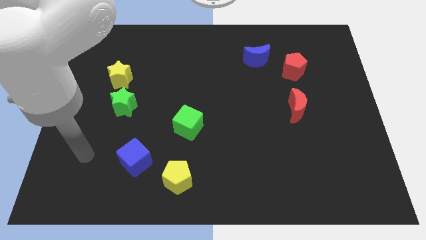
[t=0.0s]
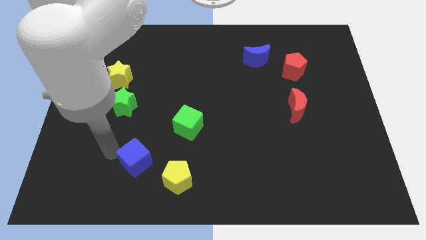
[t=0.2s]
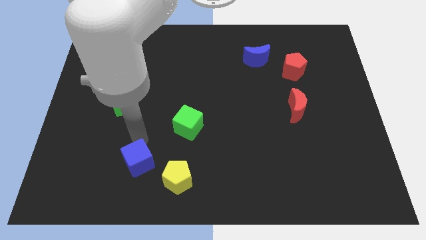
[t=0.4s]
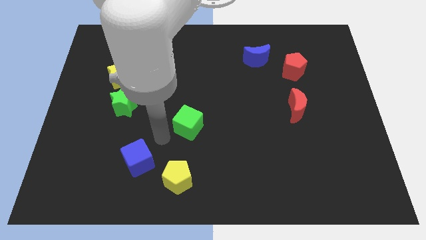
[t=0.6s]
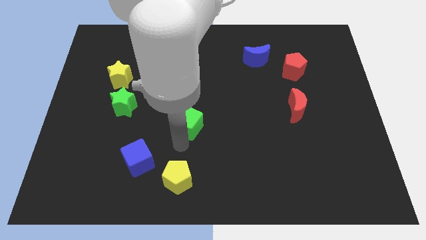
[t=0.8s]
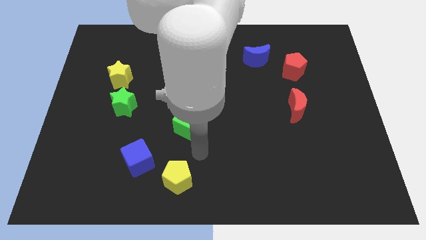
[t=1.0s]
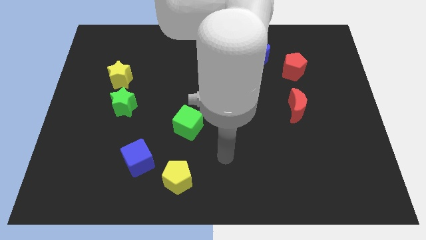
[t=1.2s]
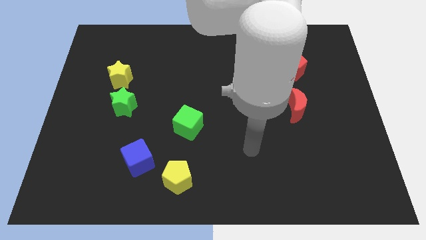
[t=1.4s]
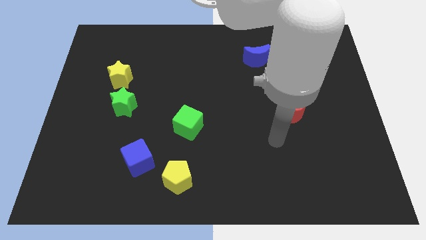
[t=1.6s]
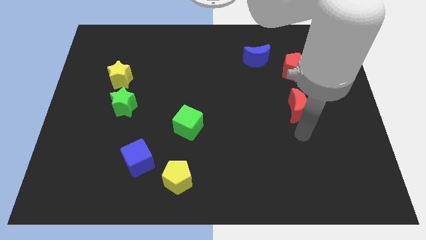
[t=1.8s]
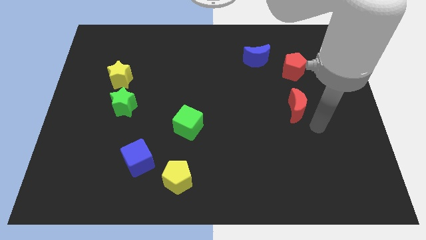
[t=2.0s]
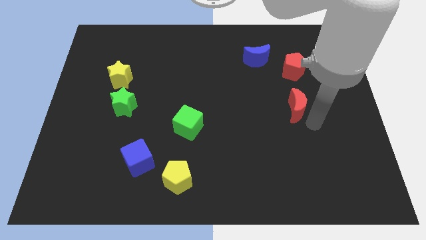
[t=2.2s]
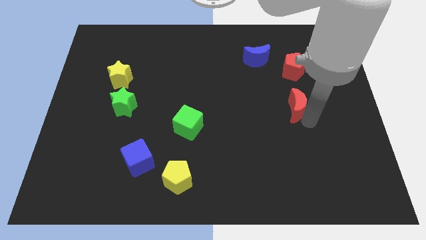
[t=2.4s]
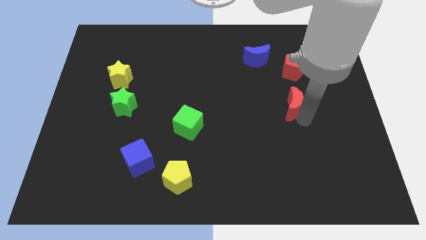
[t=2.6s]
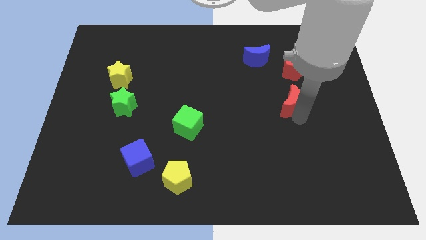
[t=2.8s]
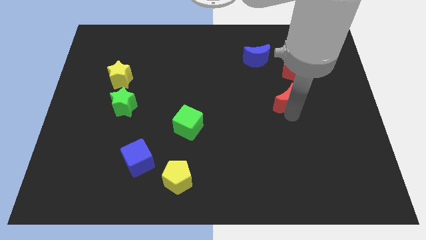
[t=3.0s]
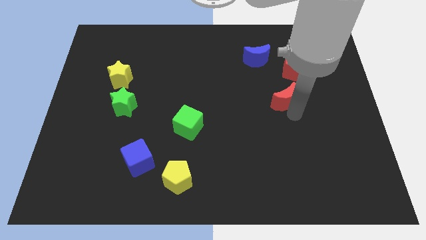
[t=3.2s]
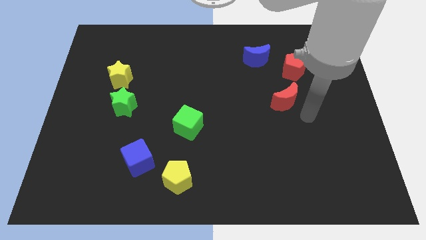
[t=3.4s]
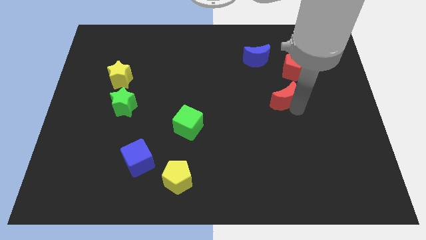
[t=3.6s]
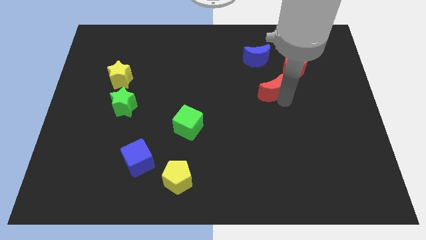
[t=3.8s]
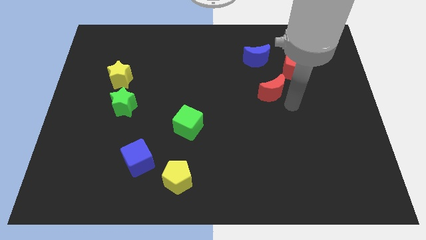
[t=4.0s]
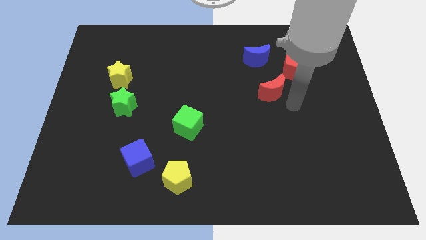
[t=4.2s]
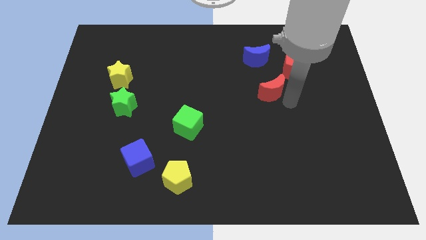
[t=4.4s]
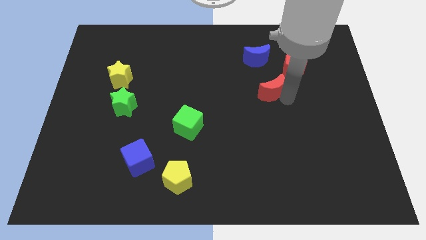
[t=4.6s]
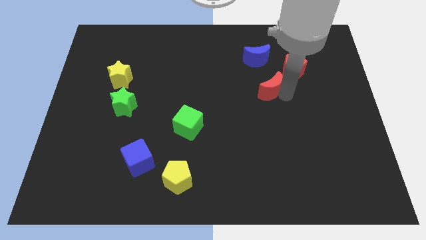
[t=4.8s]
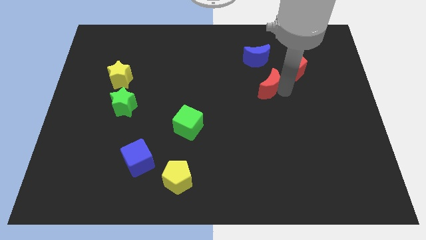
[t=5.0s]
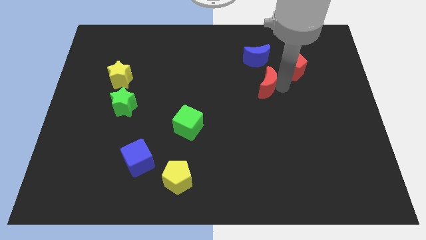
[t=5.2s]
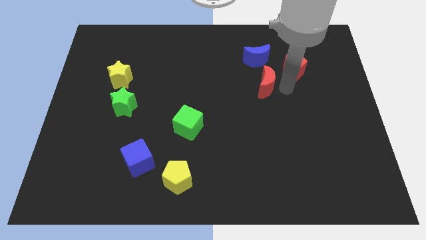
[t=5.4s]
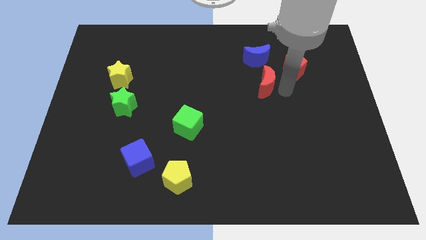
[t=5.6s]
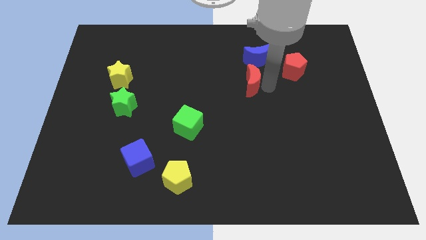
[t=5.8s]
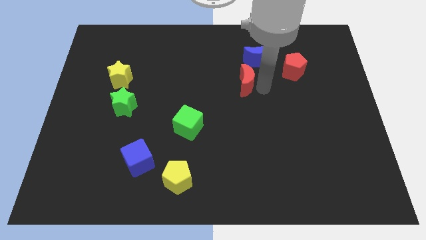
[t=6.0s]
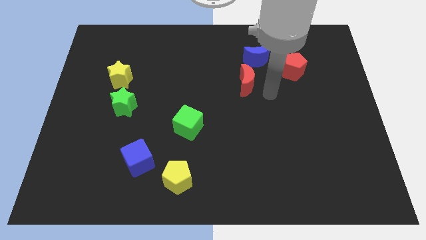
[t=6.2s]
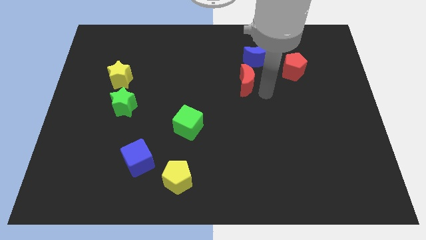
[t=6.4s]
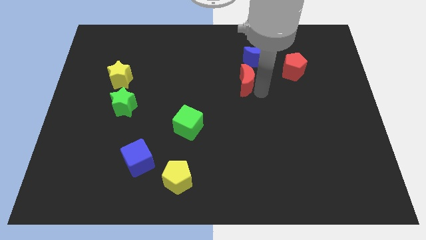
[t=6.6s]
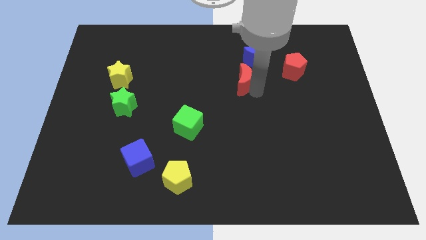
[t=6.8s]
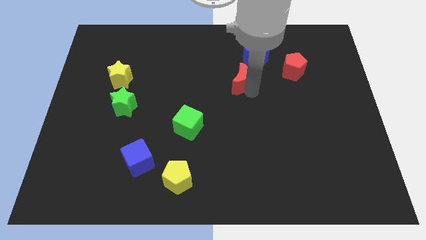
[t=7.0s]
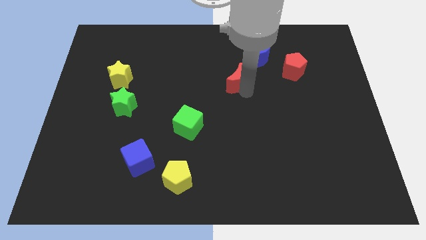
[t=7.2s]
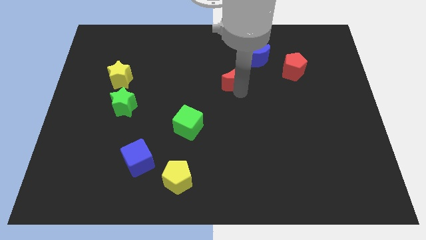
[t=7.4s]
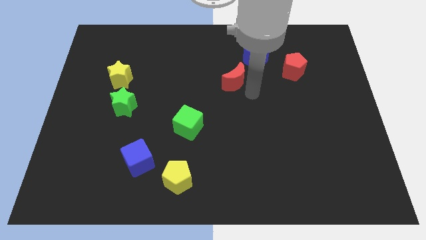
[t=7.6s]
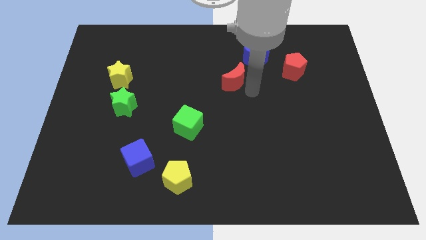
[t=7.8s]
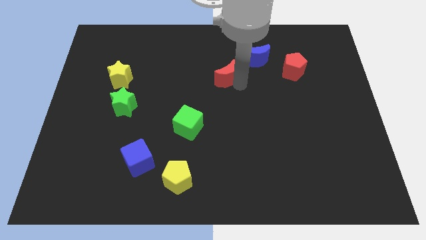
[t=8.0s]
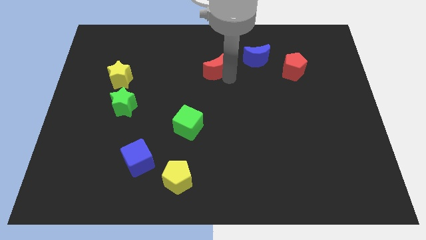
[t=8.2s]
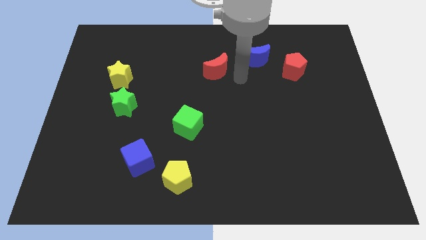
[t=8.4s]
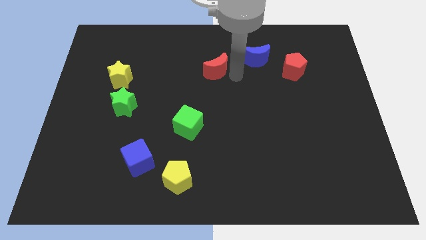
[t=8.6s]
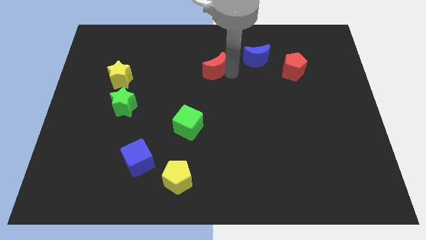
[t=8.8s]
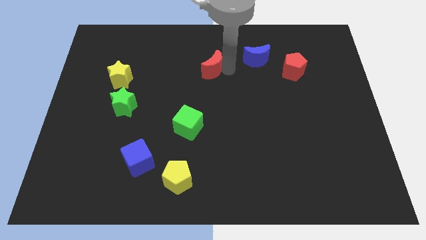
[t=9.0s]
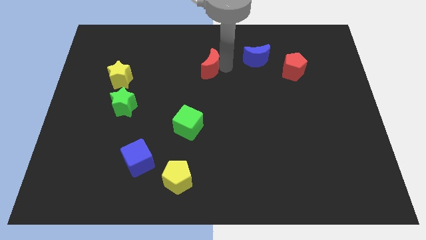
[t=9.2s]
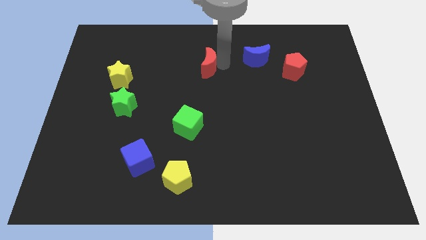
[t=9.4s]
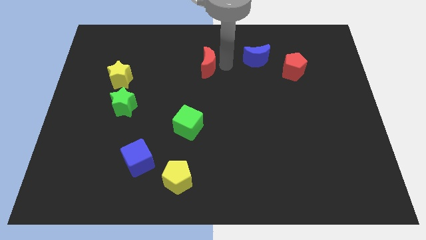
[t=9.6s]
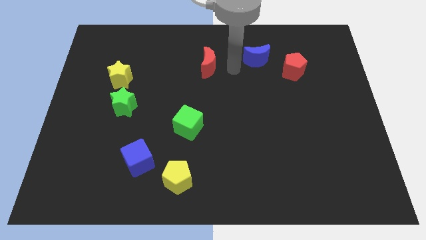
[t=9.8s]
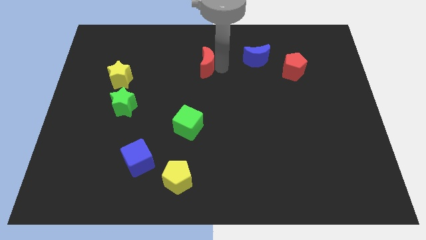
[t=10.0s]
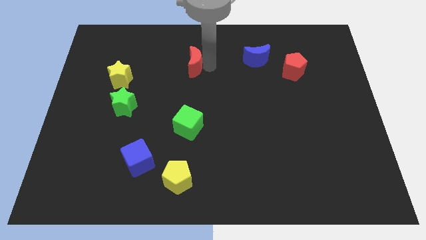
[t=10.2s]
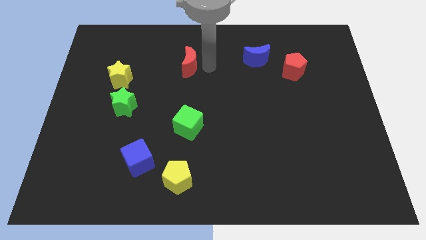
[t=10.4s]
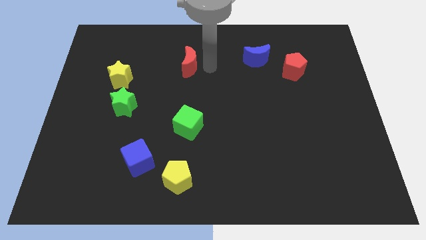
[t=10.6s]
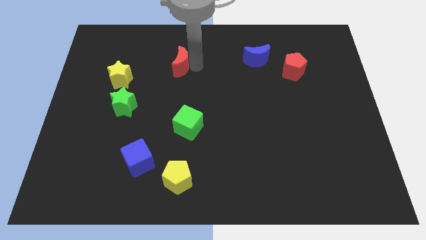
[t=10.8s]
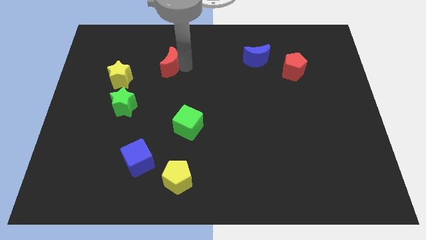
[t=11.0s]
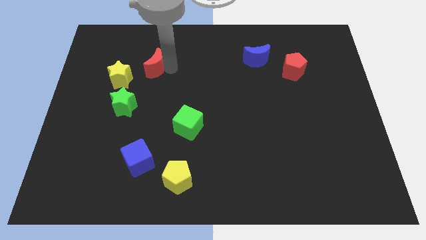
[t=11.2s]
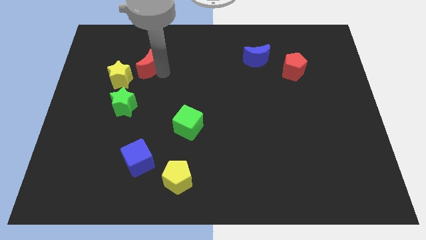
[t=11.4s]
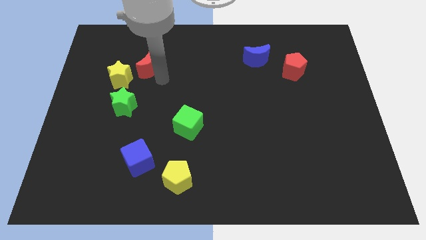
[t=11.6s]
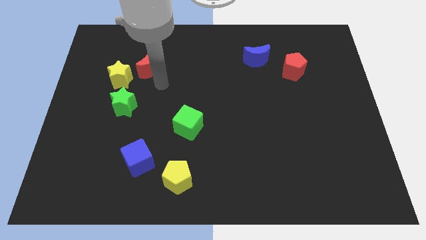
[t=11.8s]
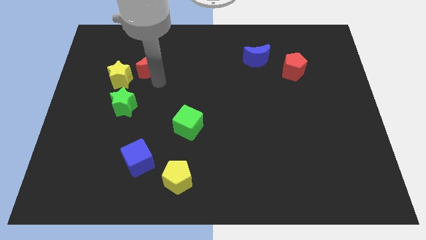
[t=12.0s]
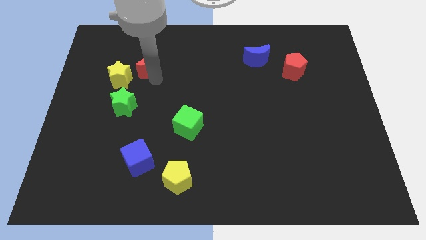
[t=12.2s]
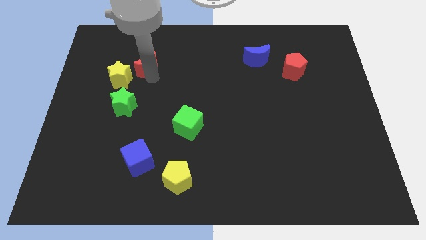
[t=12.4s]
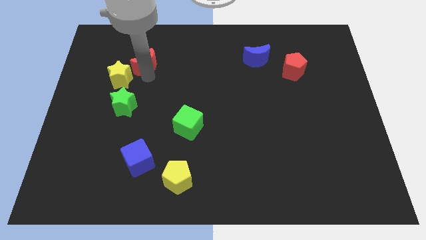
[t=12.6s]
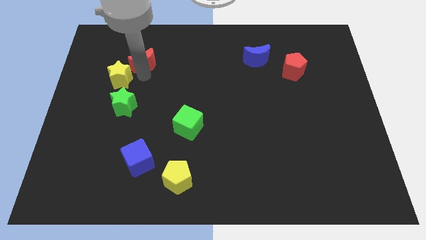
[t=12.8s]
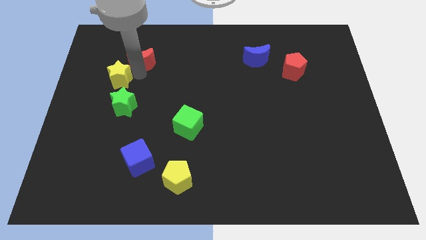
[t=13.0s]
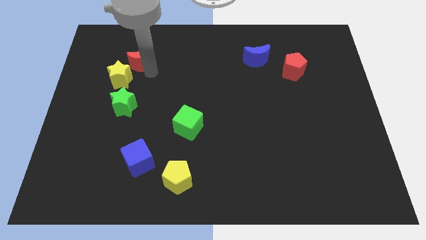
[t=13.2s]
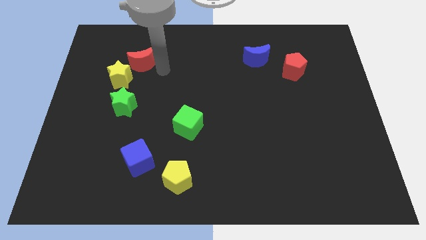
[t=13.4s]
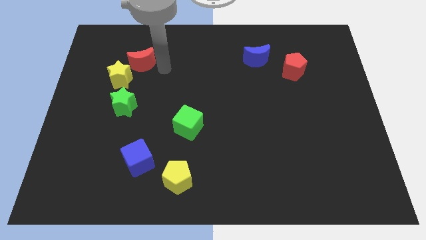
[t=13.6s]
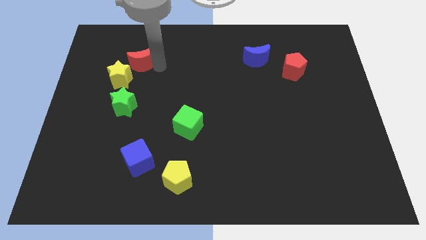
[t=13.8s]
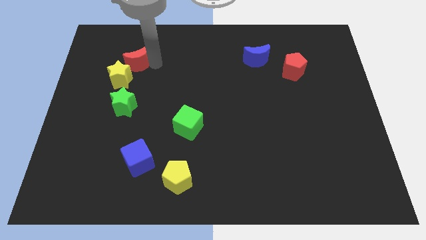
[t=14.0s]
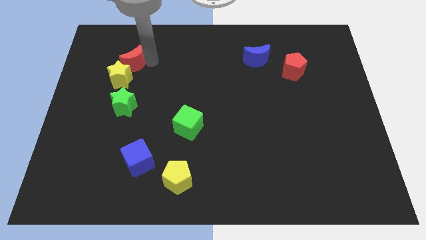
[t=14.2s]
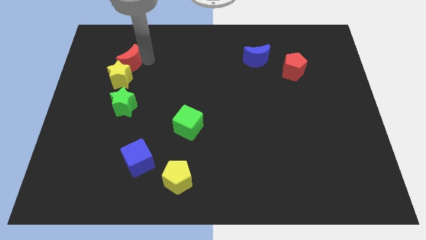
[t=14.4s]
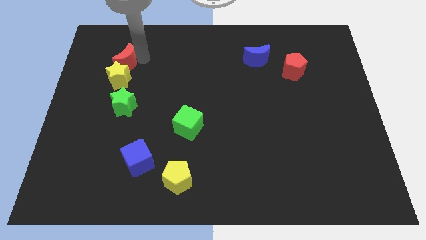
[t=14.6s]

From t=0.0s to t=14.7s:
move the red moon diagonally up and to the left of the yellow star

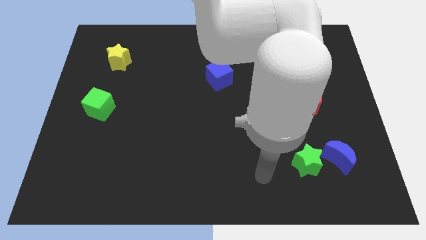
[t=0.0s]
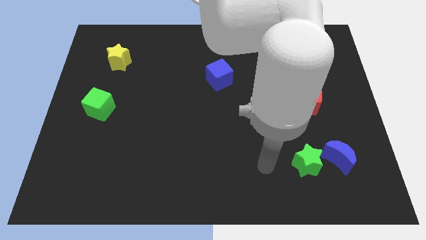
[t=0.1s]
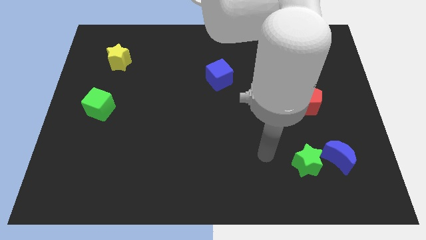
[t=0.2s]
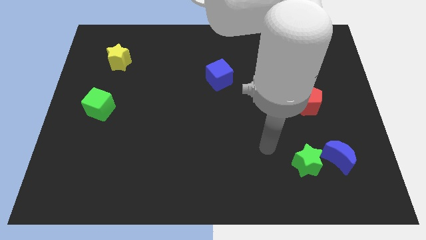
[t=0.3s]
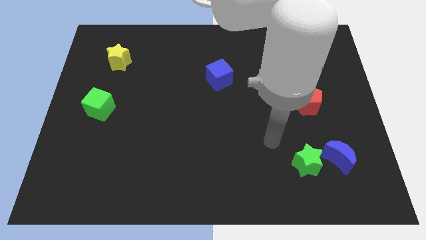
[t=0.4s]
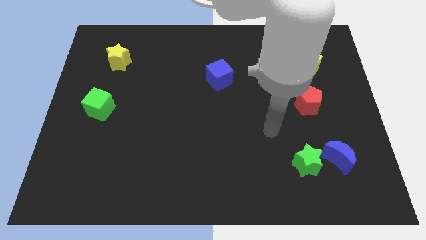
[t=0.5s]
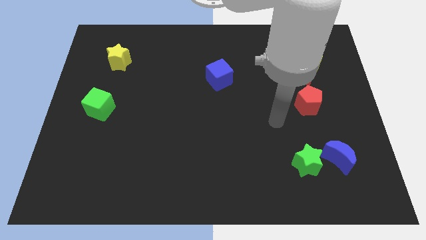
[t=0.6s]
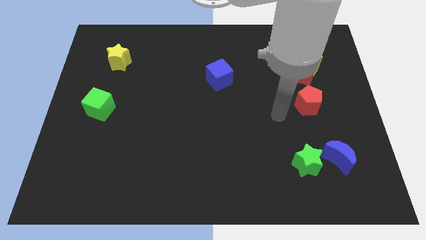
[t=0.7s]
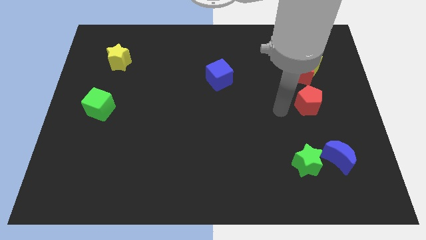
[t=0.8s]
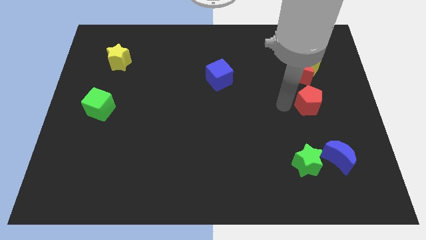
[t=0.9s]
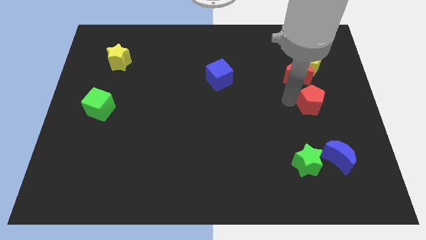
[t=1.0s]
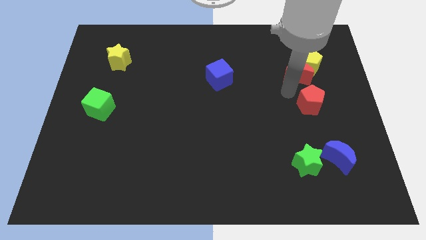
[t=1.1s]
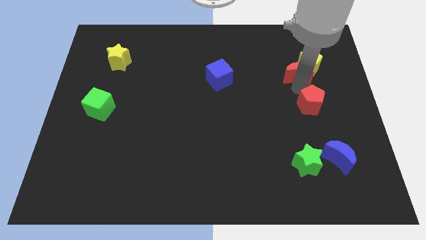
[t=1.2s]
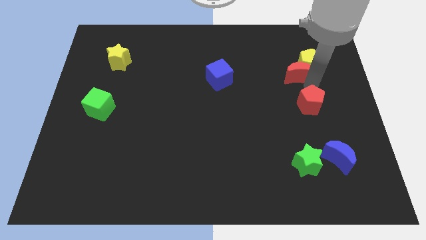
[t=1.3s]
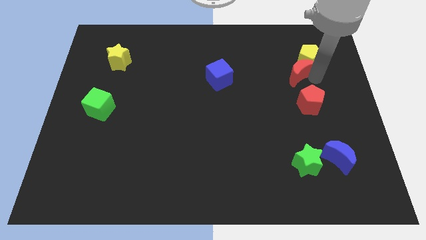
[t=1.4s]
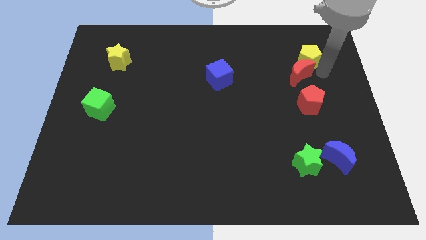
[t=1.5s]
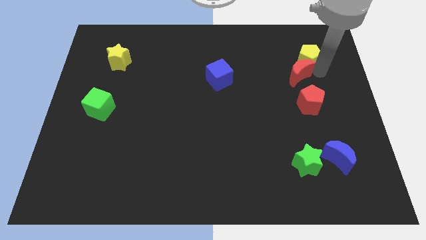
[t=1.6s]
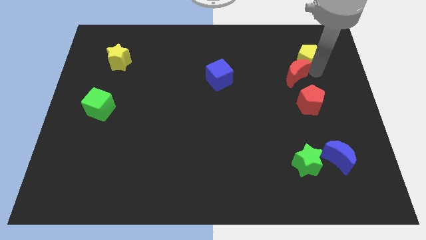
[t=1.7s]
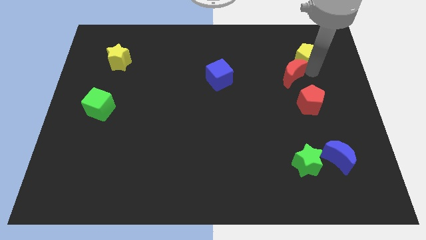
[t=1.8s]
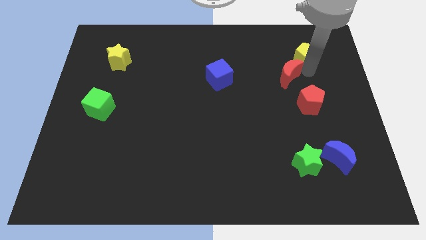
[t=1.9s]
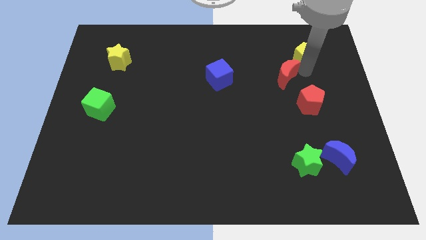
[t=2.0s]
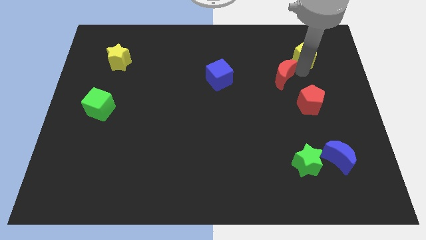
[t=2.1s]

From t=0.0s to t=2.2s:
put the red moon just right of the blue cube
